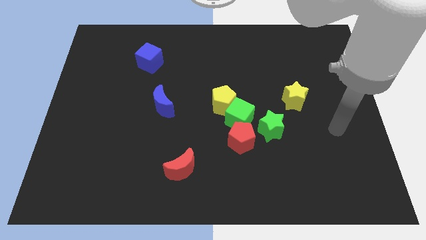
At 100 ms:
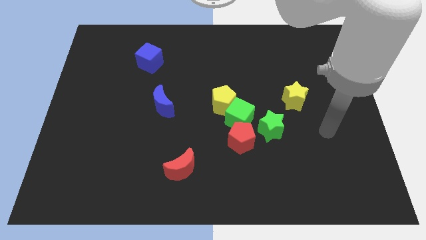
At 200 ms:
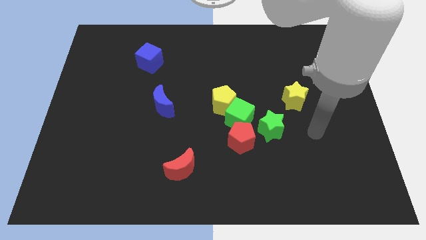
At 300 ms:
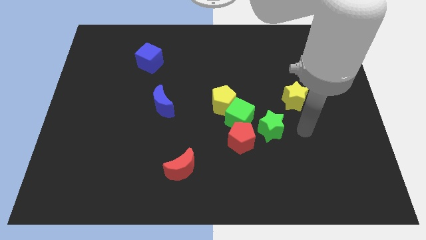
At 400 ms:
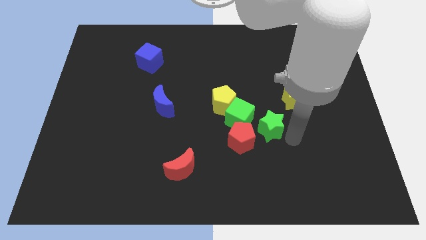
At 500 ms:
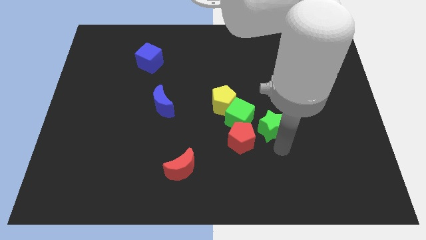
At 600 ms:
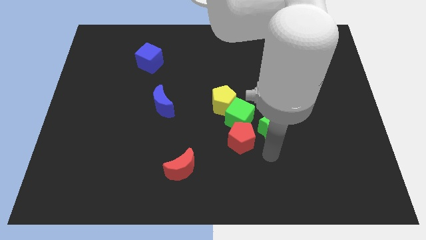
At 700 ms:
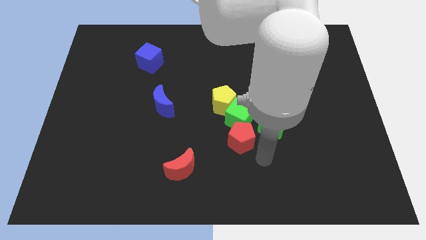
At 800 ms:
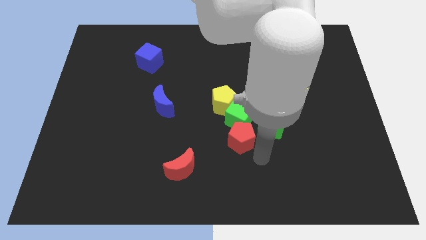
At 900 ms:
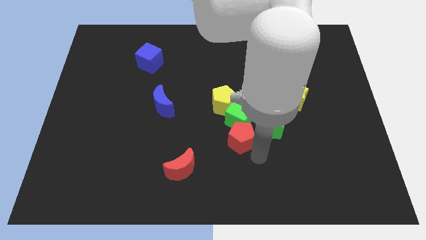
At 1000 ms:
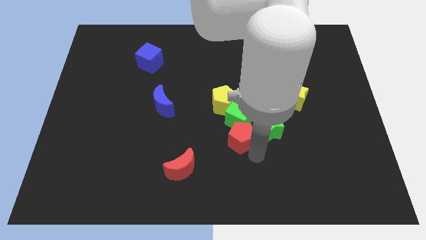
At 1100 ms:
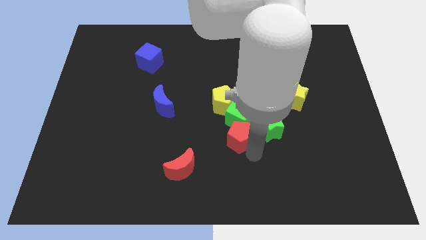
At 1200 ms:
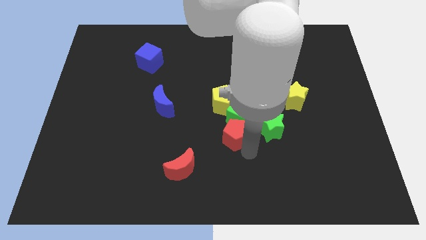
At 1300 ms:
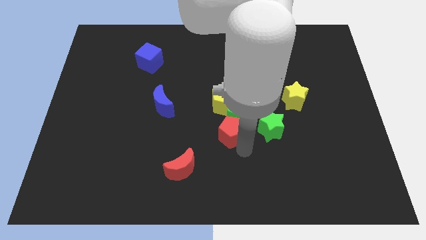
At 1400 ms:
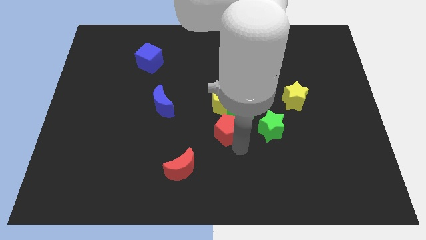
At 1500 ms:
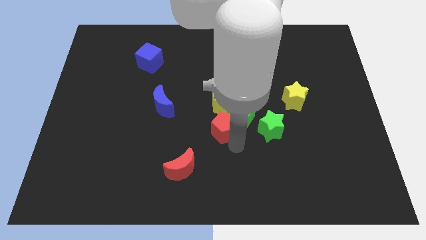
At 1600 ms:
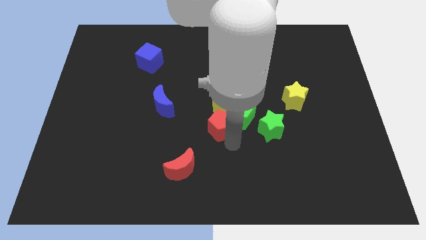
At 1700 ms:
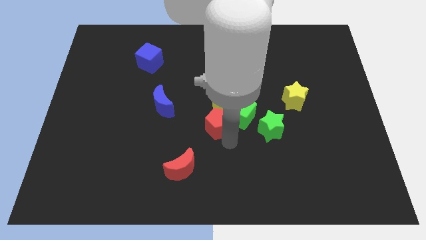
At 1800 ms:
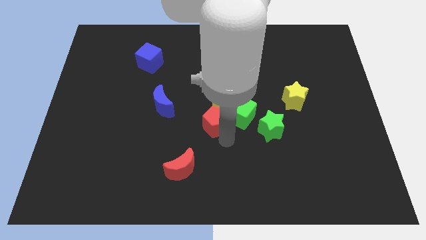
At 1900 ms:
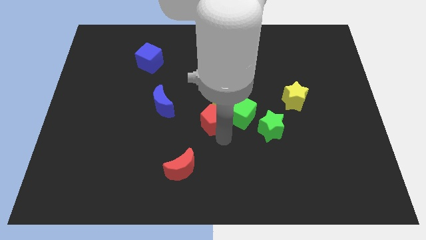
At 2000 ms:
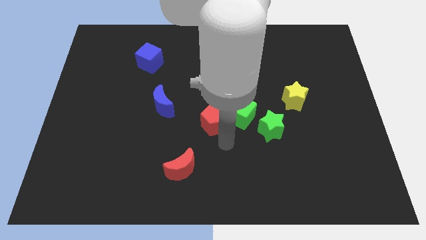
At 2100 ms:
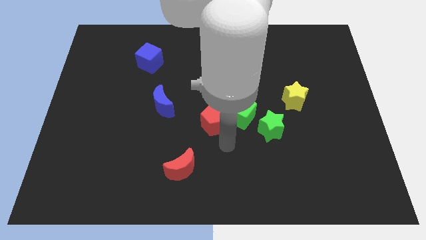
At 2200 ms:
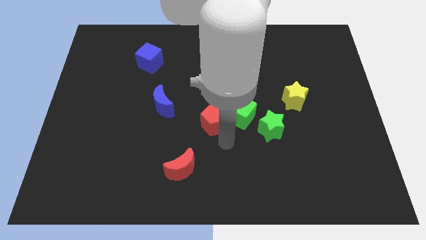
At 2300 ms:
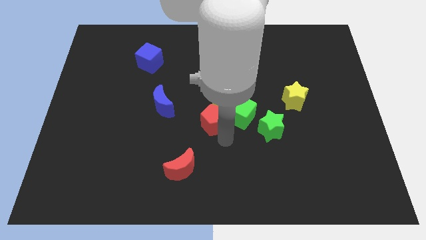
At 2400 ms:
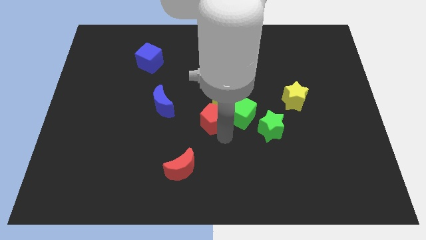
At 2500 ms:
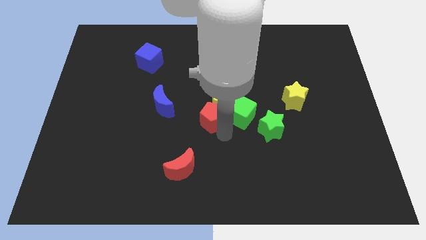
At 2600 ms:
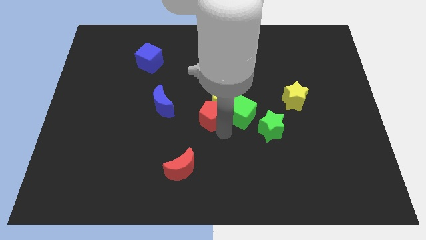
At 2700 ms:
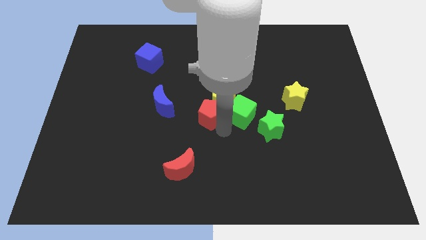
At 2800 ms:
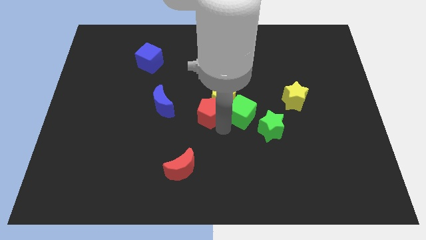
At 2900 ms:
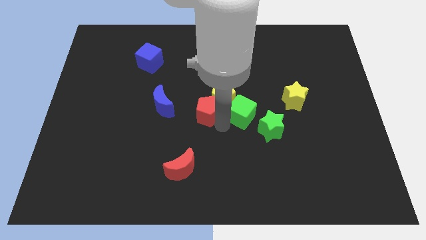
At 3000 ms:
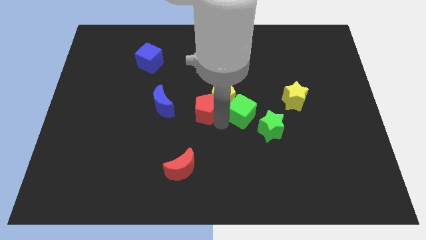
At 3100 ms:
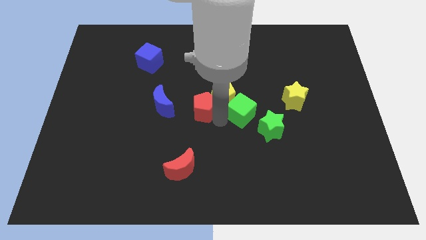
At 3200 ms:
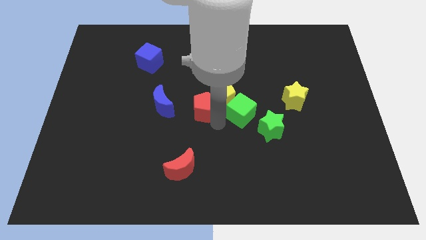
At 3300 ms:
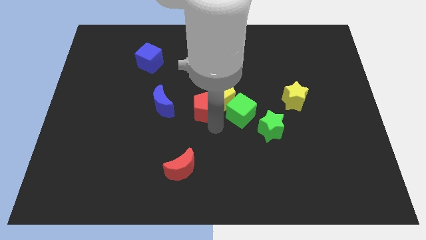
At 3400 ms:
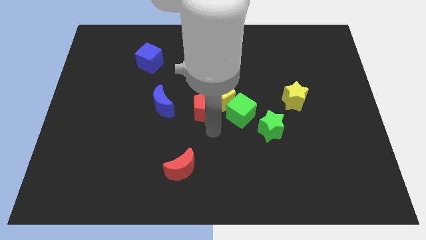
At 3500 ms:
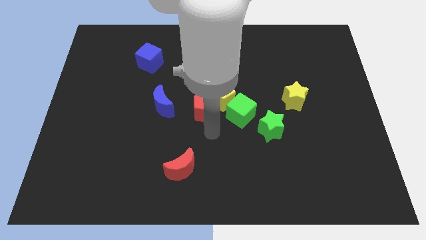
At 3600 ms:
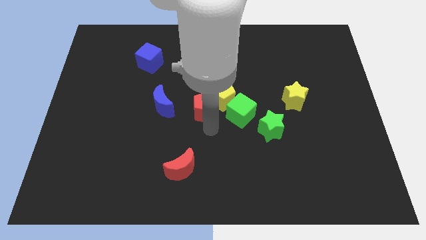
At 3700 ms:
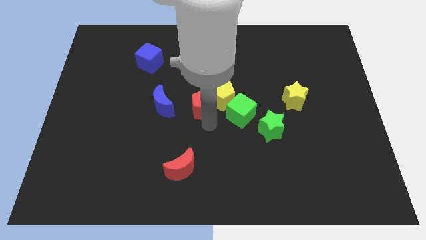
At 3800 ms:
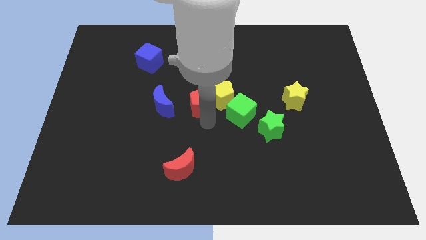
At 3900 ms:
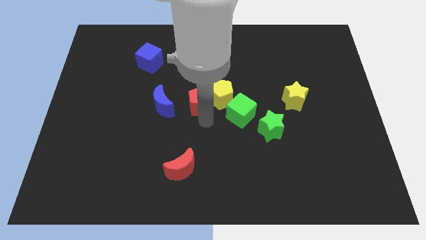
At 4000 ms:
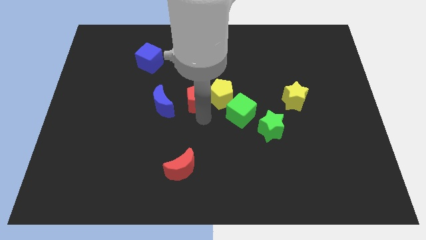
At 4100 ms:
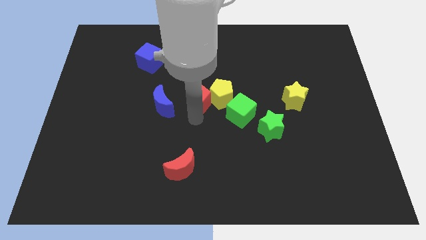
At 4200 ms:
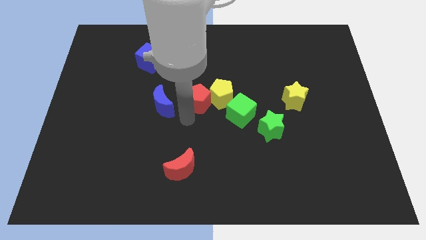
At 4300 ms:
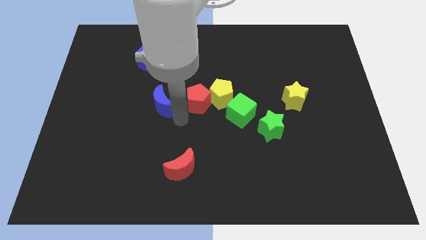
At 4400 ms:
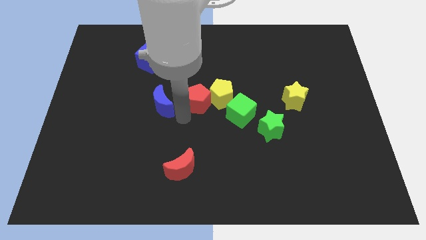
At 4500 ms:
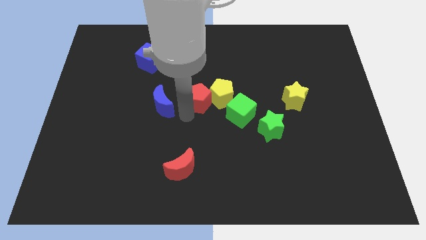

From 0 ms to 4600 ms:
slide the red pentagon up a bit

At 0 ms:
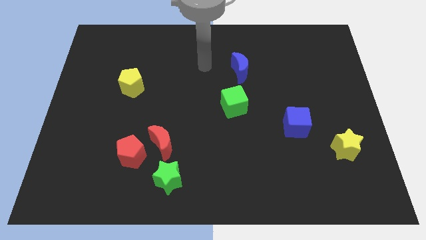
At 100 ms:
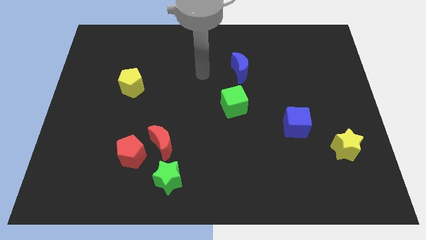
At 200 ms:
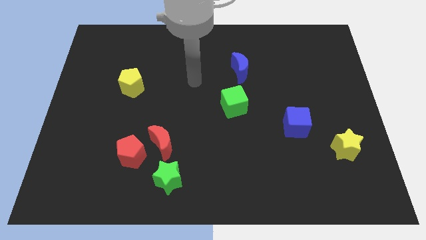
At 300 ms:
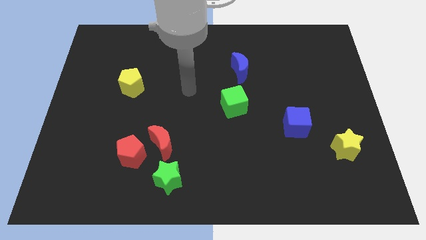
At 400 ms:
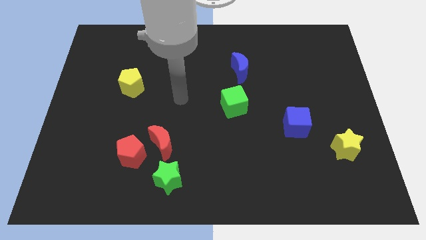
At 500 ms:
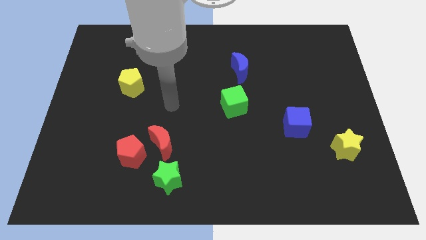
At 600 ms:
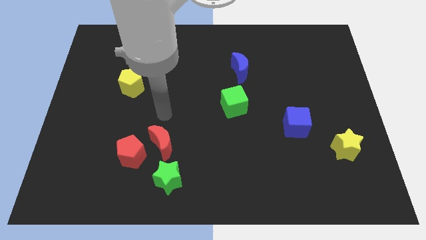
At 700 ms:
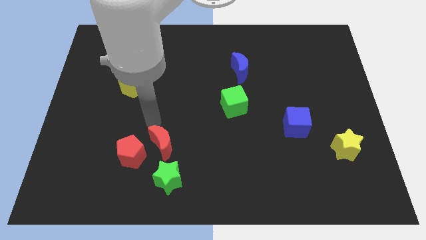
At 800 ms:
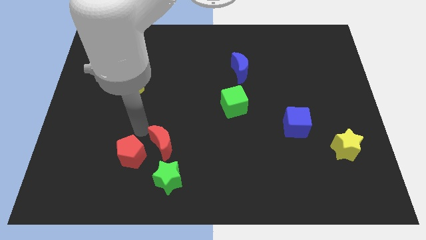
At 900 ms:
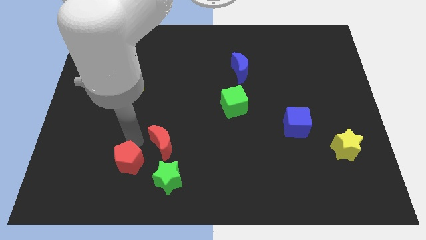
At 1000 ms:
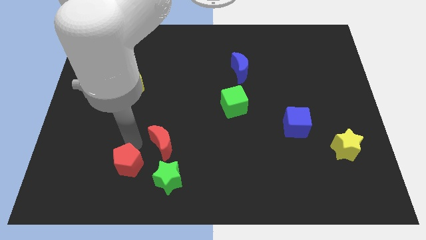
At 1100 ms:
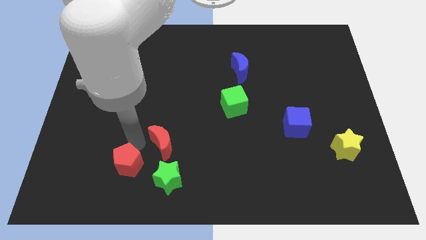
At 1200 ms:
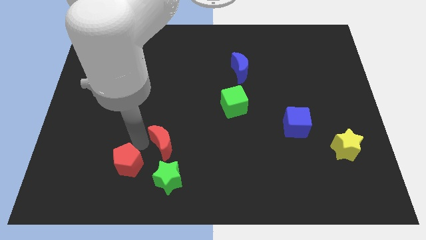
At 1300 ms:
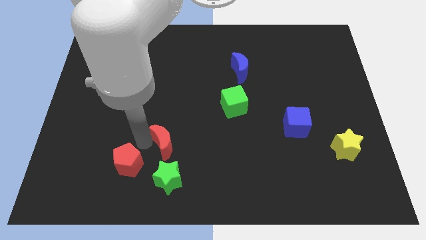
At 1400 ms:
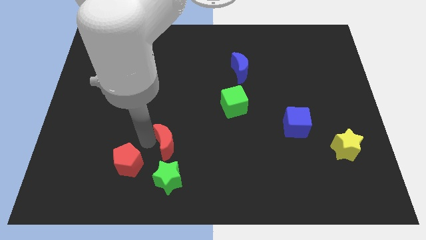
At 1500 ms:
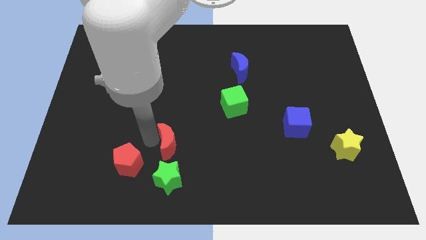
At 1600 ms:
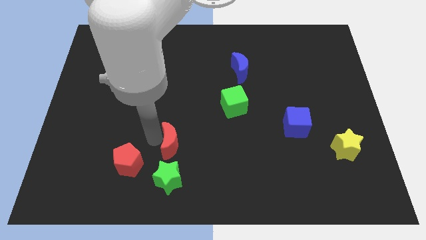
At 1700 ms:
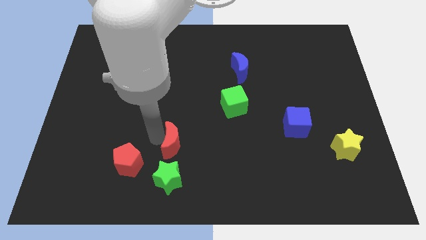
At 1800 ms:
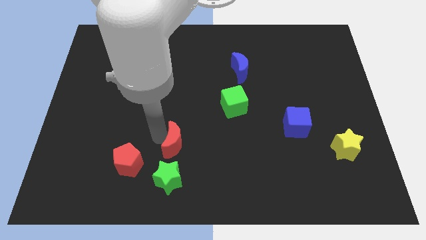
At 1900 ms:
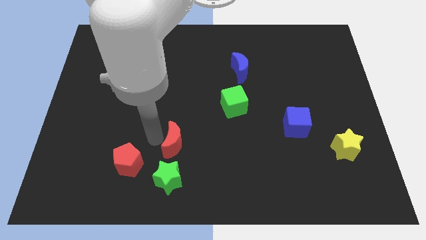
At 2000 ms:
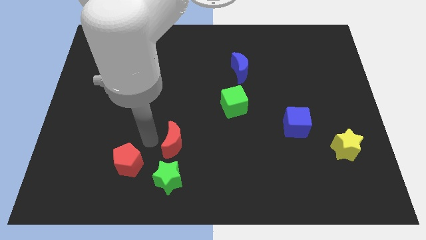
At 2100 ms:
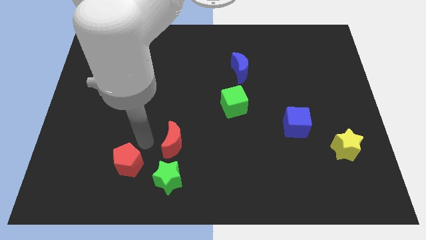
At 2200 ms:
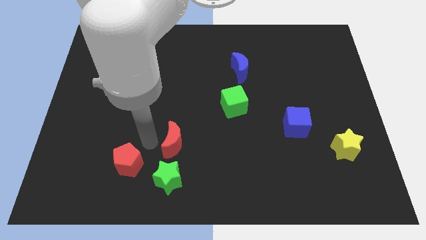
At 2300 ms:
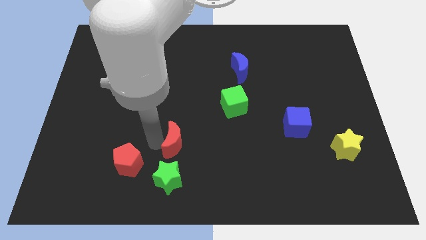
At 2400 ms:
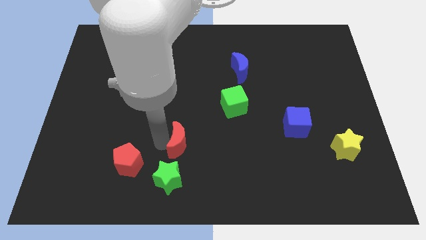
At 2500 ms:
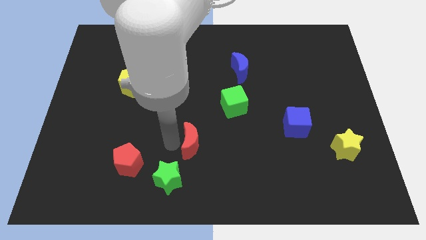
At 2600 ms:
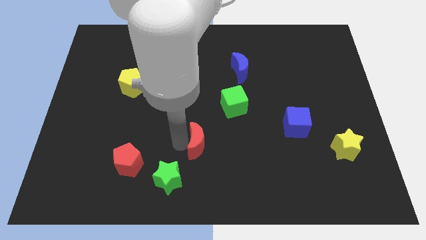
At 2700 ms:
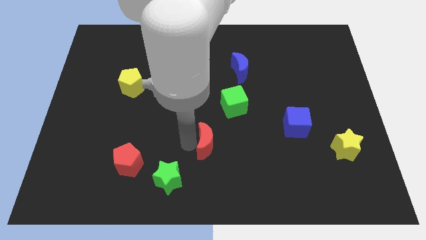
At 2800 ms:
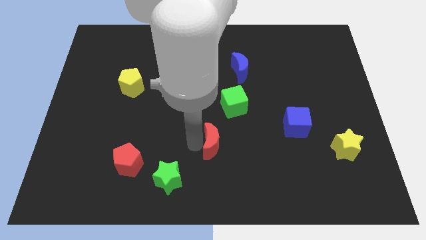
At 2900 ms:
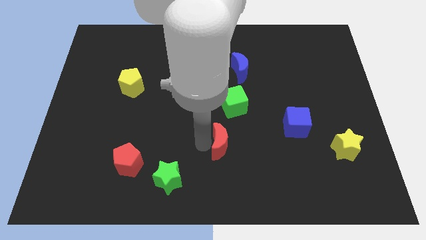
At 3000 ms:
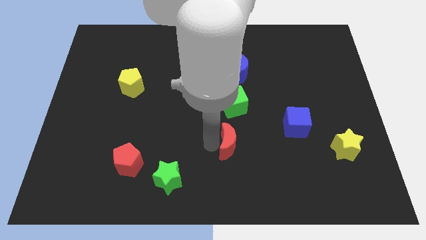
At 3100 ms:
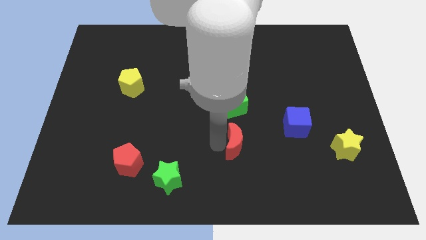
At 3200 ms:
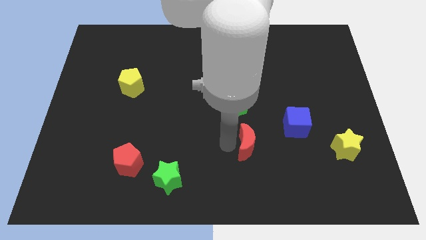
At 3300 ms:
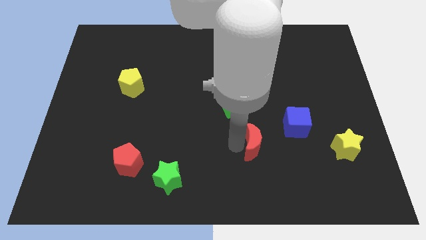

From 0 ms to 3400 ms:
move the red moon to the right

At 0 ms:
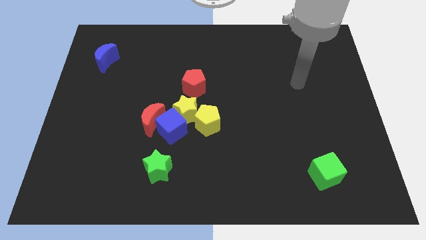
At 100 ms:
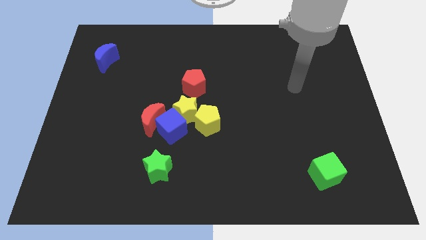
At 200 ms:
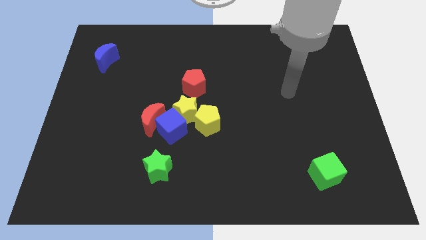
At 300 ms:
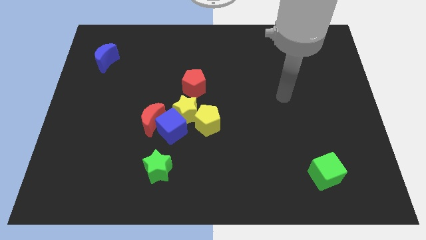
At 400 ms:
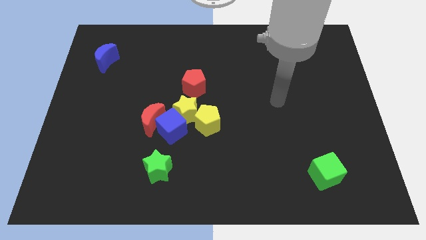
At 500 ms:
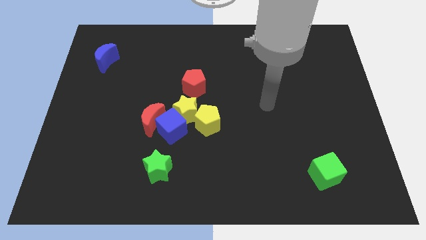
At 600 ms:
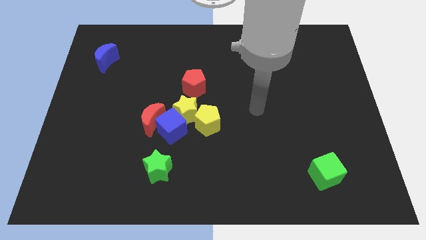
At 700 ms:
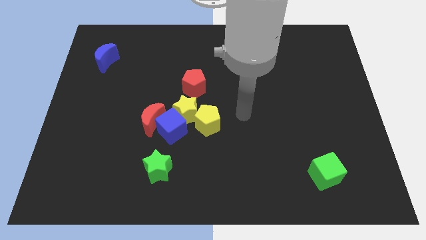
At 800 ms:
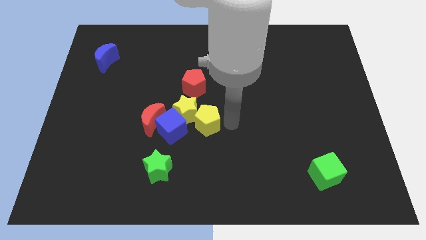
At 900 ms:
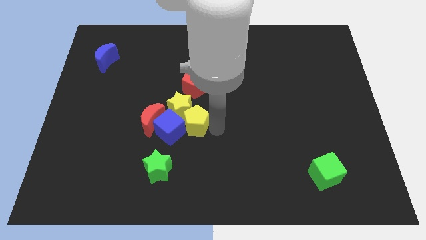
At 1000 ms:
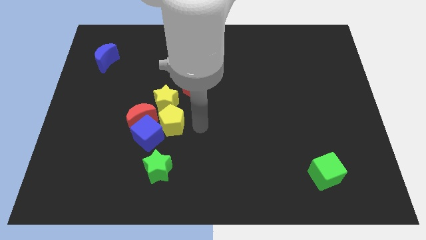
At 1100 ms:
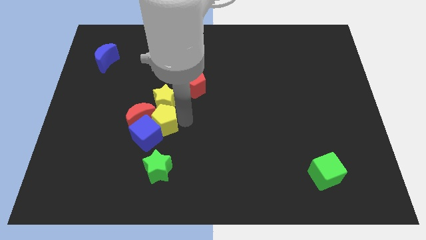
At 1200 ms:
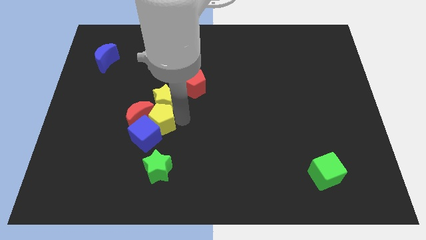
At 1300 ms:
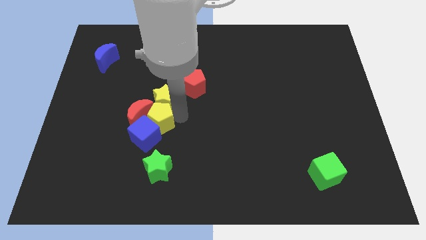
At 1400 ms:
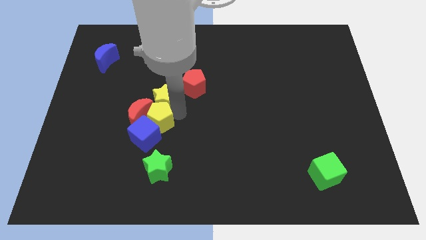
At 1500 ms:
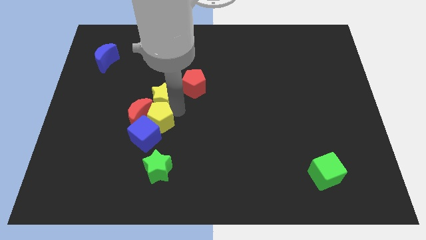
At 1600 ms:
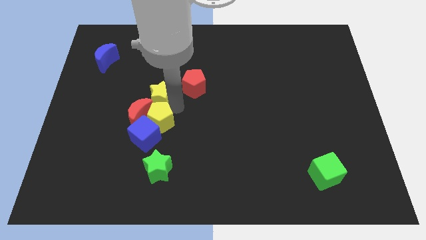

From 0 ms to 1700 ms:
slightly slide the yellow star diagonally upwards and to the left
